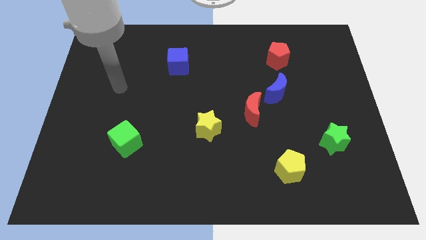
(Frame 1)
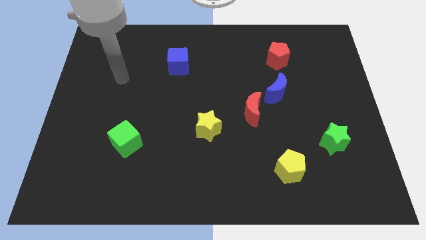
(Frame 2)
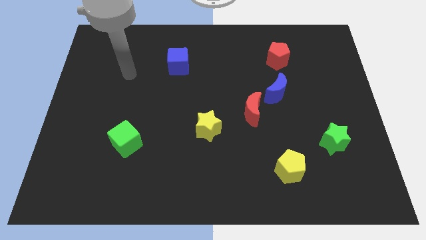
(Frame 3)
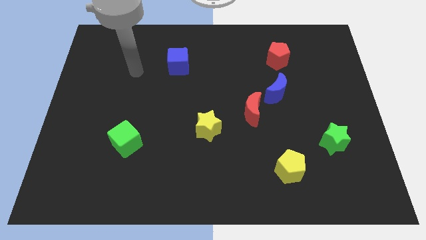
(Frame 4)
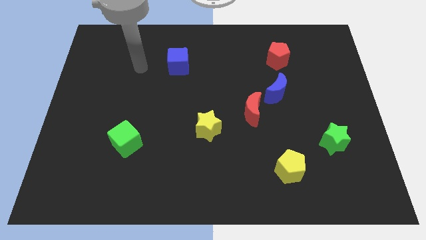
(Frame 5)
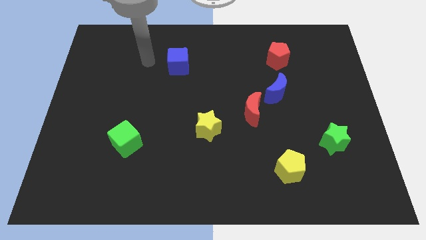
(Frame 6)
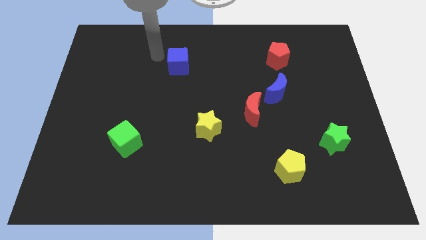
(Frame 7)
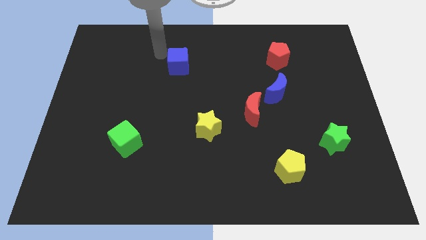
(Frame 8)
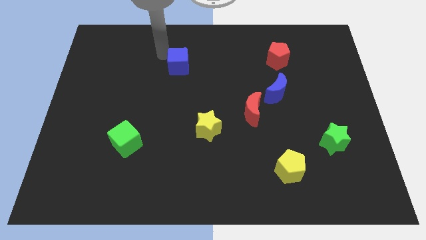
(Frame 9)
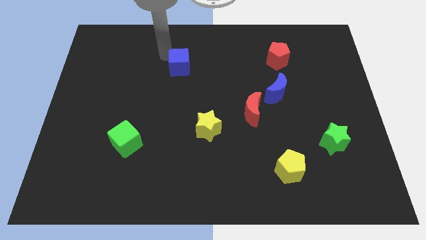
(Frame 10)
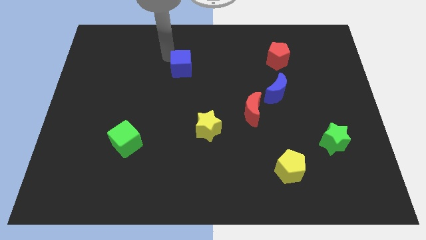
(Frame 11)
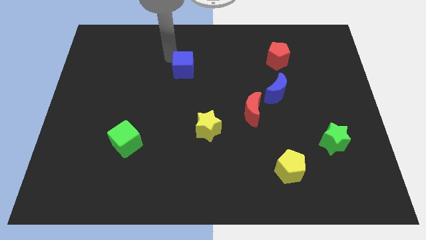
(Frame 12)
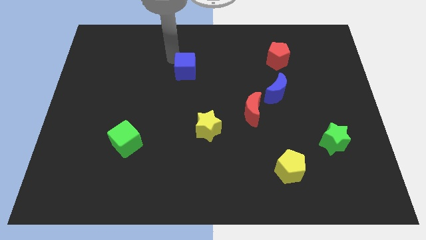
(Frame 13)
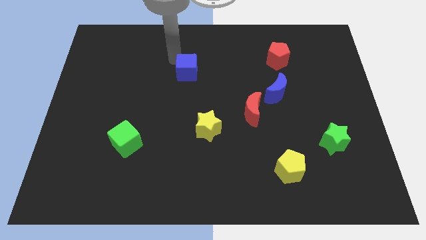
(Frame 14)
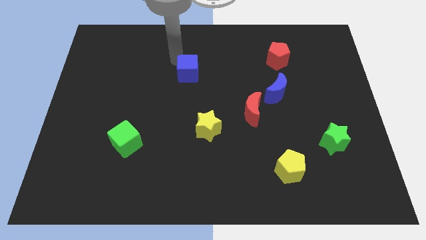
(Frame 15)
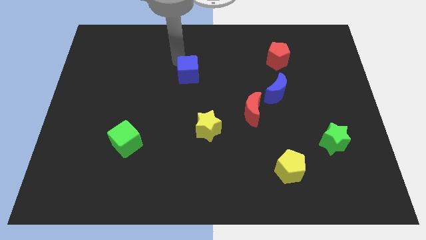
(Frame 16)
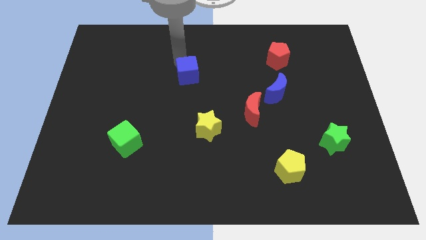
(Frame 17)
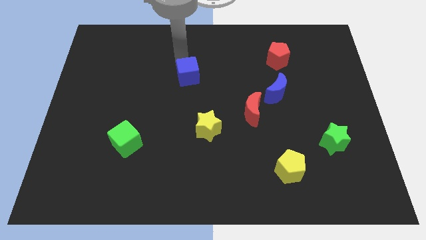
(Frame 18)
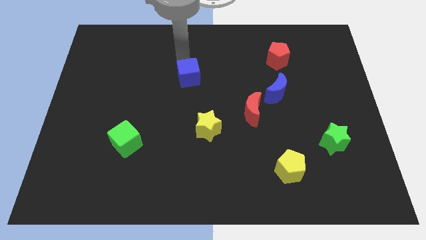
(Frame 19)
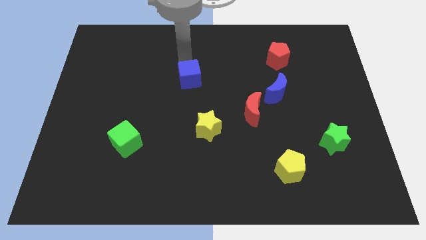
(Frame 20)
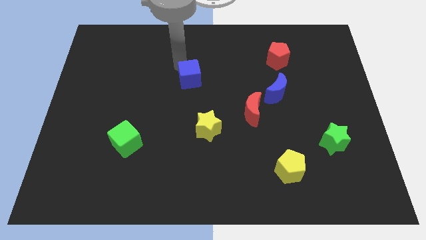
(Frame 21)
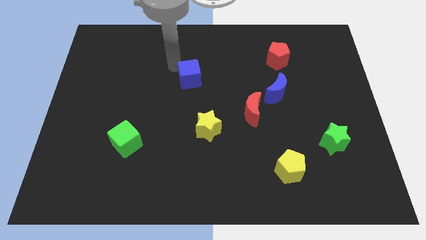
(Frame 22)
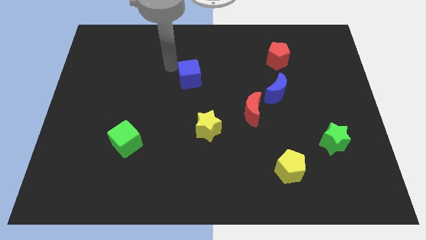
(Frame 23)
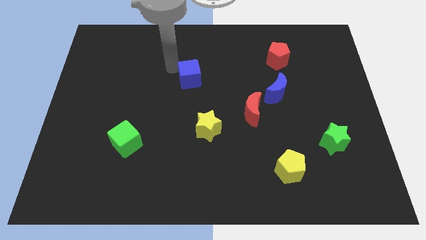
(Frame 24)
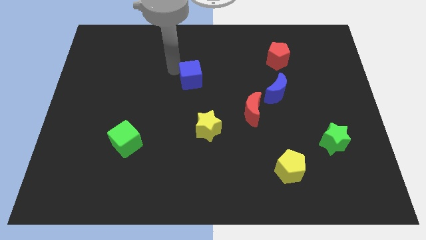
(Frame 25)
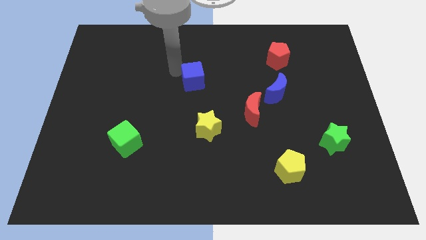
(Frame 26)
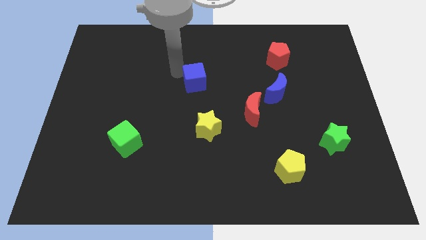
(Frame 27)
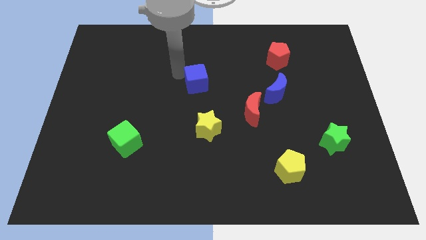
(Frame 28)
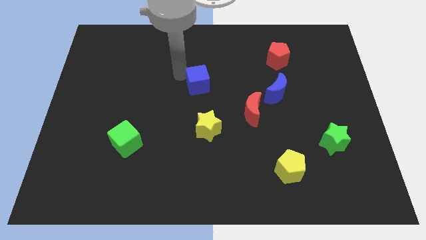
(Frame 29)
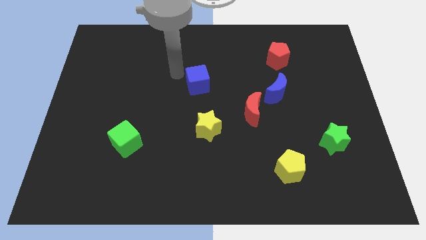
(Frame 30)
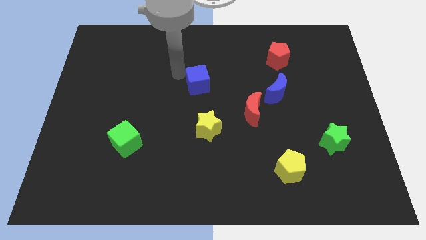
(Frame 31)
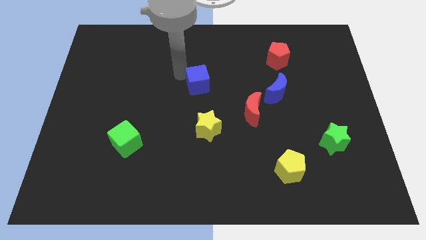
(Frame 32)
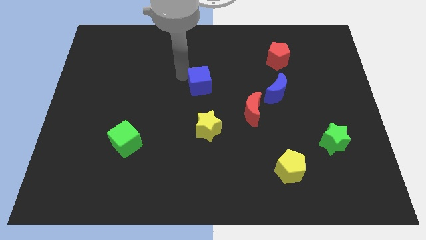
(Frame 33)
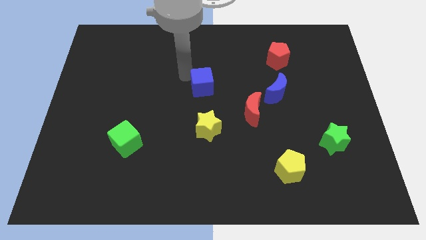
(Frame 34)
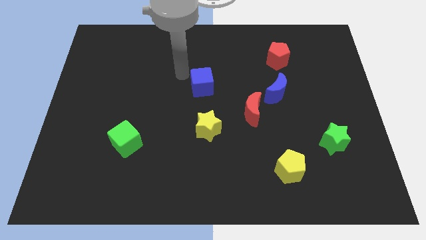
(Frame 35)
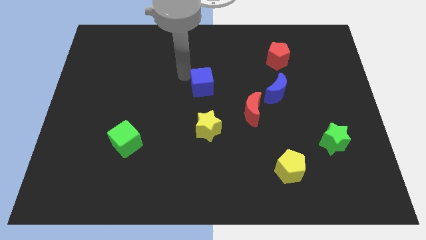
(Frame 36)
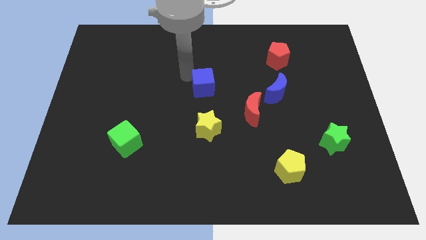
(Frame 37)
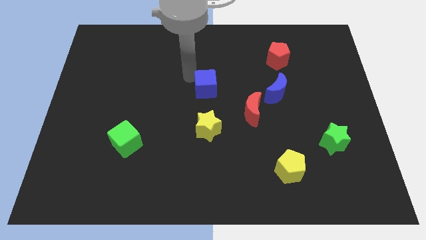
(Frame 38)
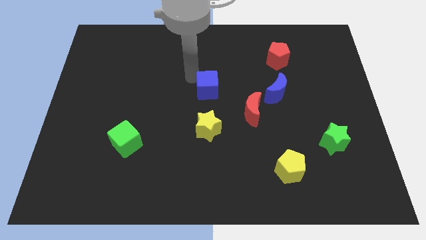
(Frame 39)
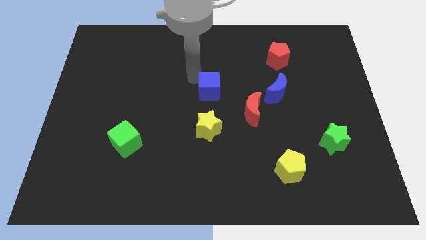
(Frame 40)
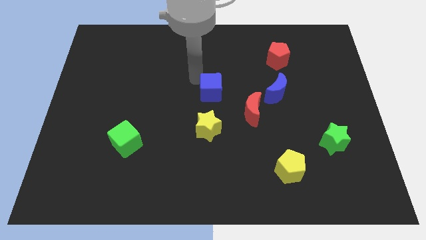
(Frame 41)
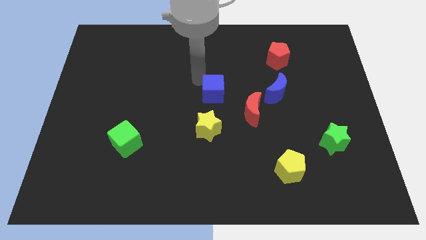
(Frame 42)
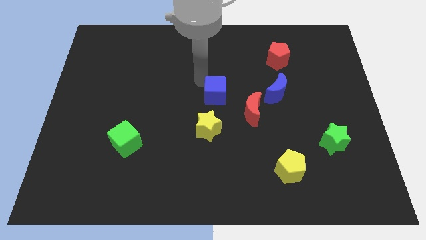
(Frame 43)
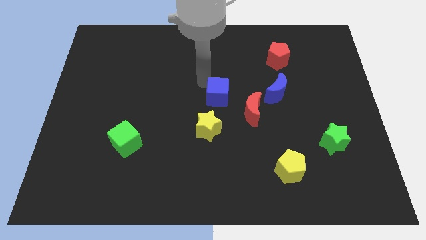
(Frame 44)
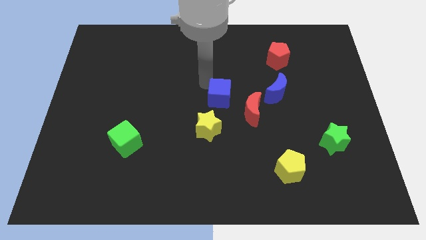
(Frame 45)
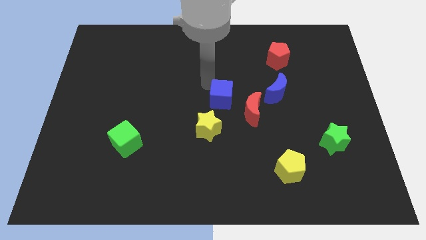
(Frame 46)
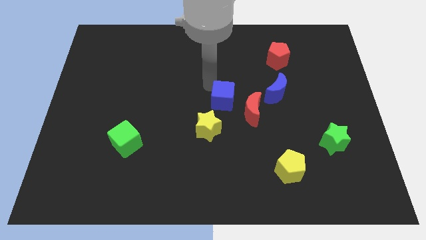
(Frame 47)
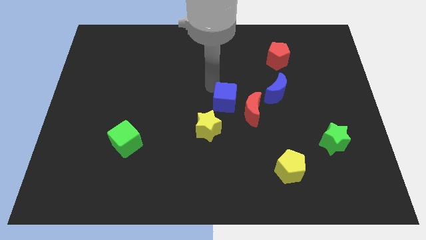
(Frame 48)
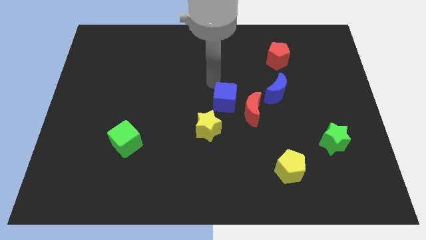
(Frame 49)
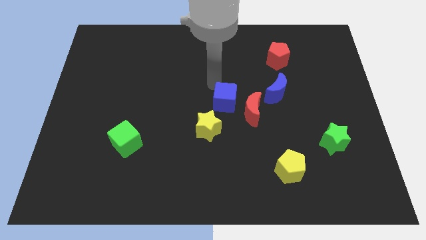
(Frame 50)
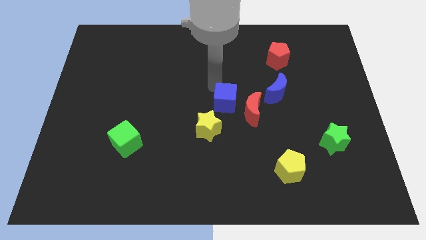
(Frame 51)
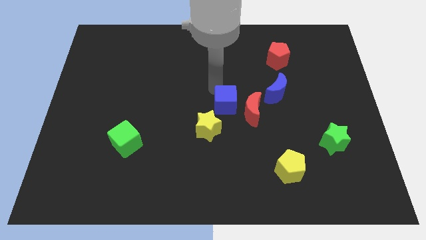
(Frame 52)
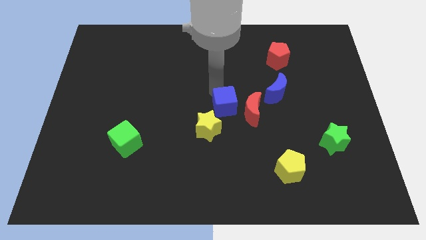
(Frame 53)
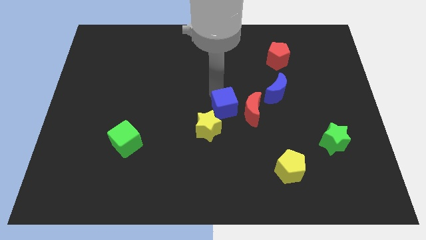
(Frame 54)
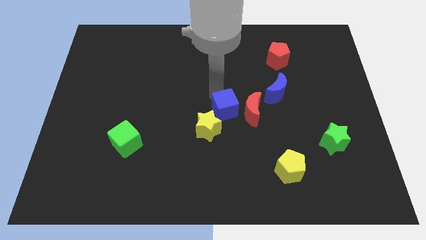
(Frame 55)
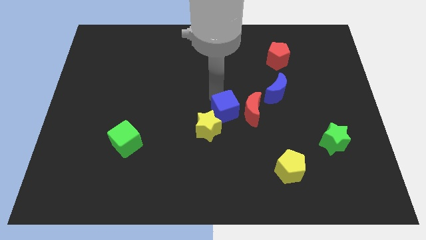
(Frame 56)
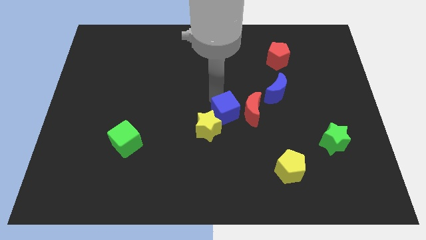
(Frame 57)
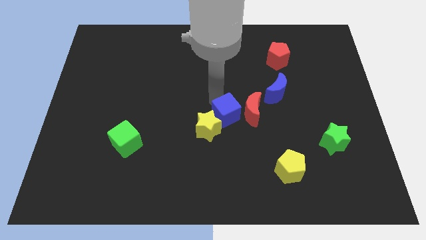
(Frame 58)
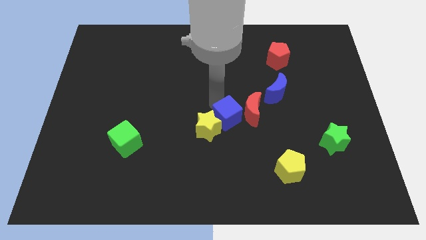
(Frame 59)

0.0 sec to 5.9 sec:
move the blue cube down and to the right diagonally

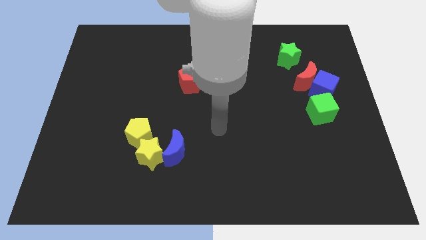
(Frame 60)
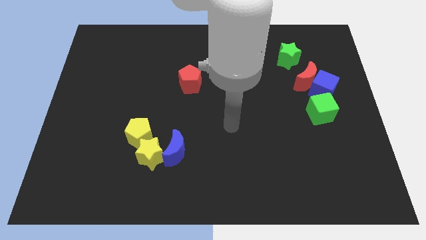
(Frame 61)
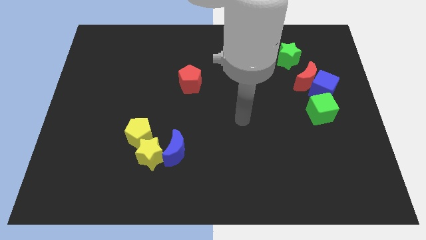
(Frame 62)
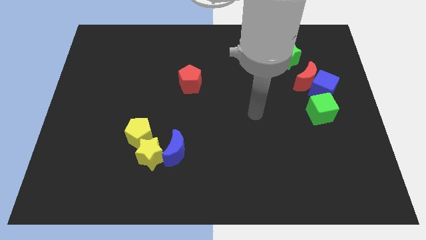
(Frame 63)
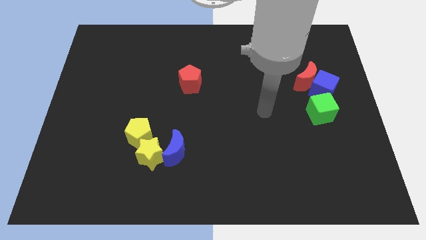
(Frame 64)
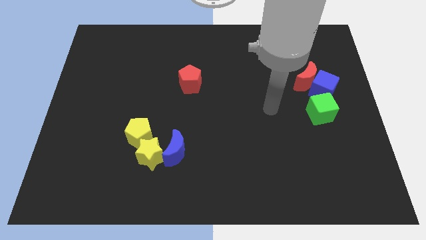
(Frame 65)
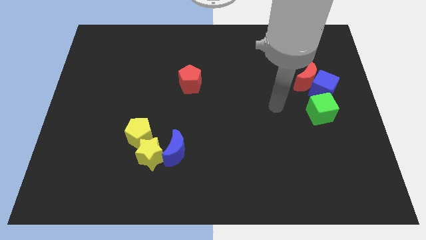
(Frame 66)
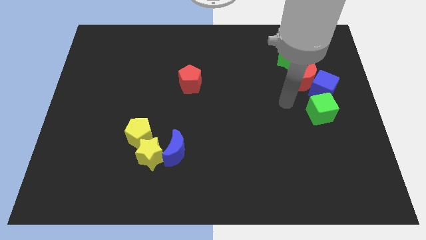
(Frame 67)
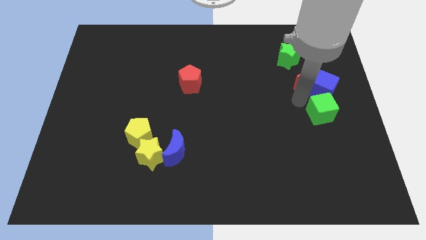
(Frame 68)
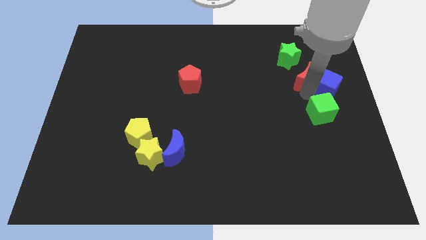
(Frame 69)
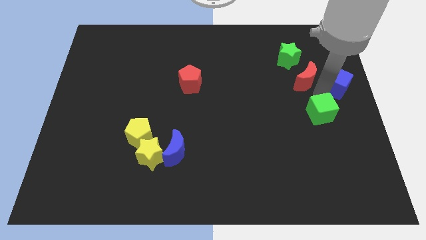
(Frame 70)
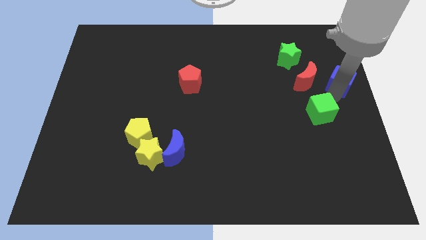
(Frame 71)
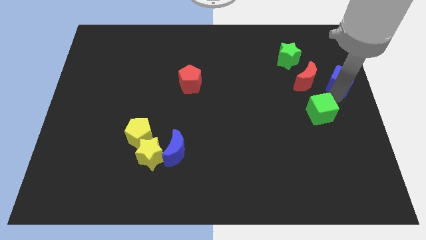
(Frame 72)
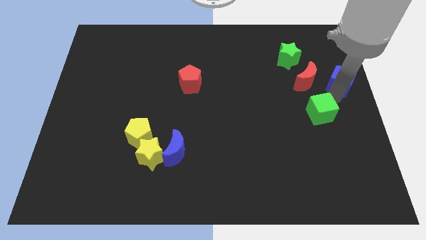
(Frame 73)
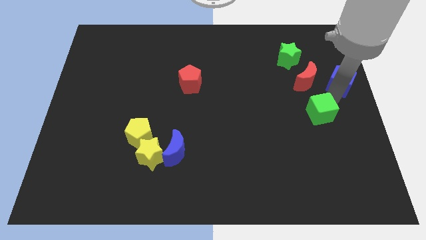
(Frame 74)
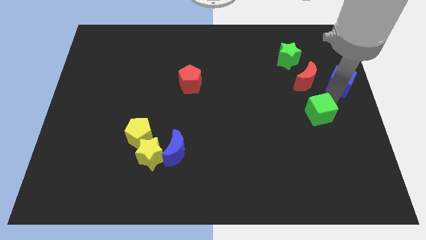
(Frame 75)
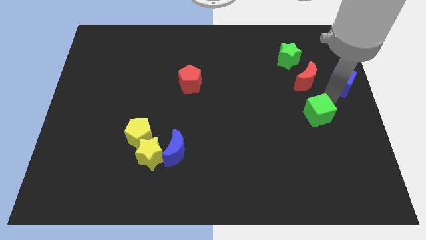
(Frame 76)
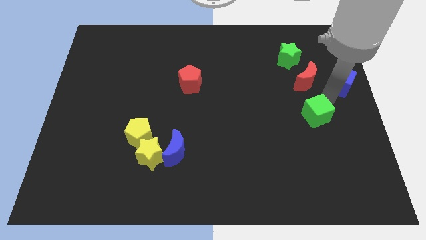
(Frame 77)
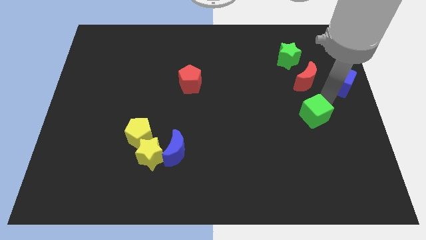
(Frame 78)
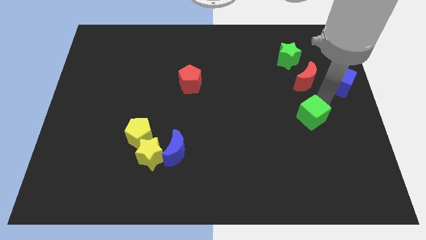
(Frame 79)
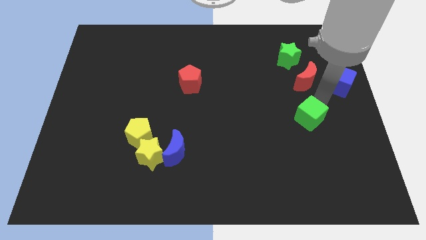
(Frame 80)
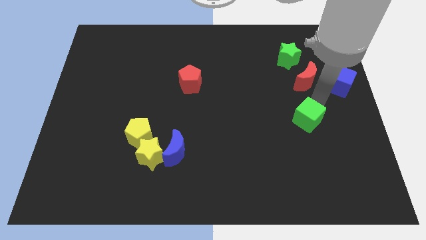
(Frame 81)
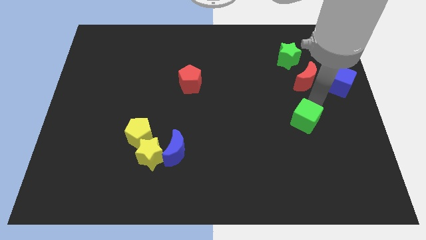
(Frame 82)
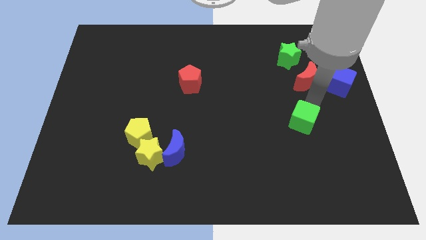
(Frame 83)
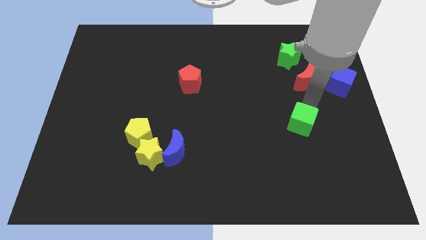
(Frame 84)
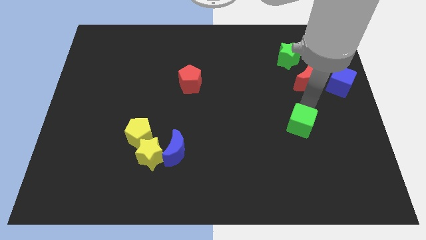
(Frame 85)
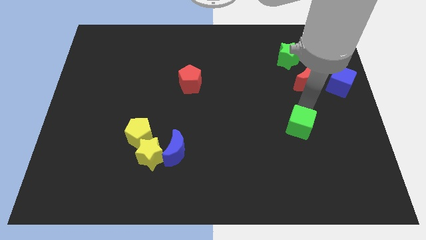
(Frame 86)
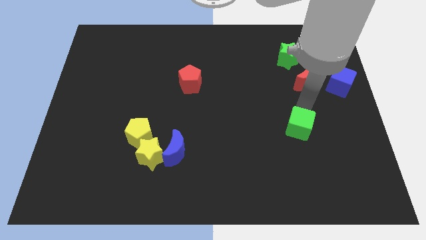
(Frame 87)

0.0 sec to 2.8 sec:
slightly push the green cube downwards and left
